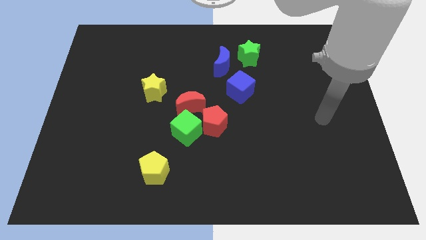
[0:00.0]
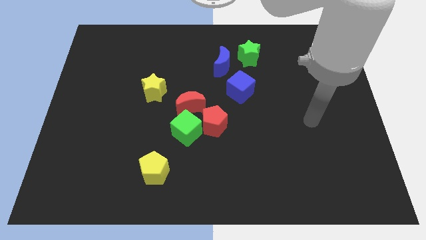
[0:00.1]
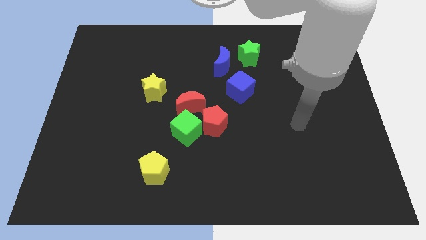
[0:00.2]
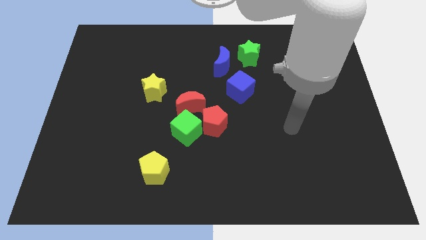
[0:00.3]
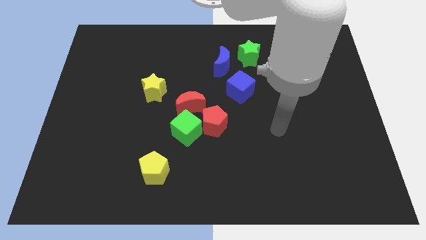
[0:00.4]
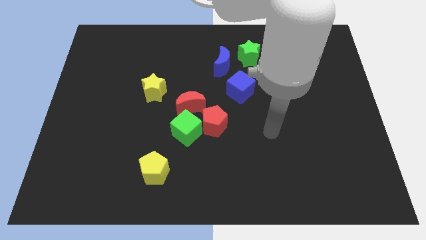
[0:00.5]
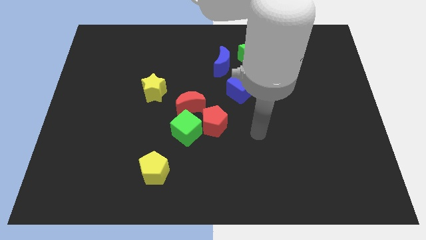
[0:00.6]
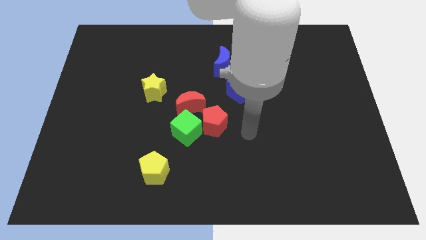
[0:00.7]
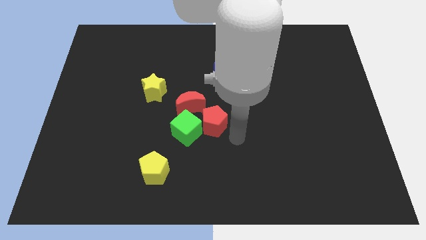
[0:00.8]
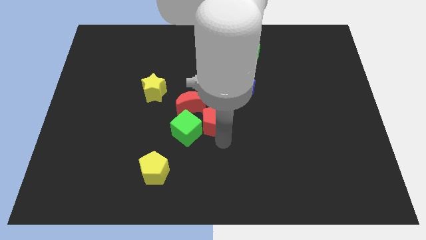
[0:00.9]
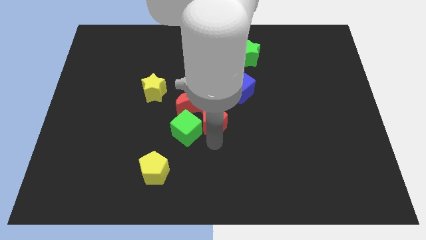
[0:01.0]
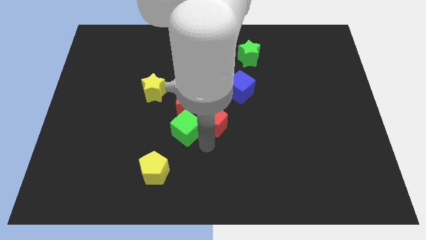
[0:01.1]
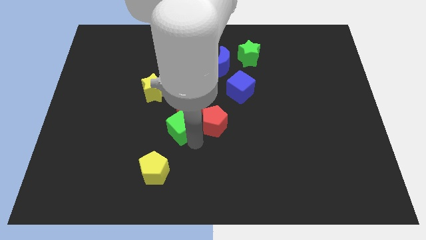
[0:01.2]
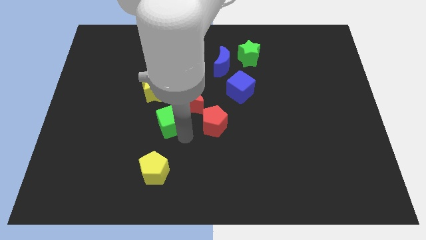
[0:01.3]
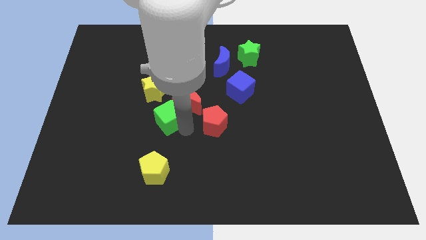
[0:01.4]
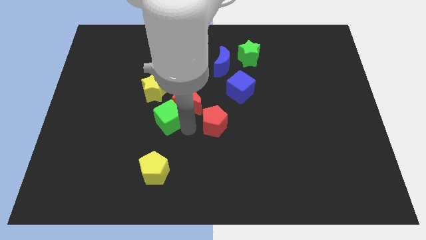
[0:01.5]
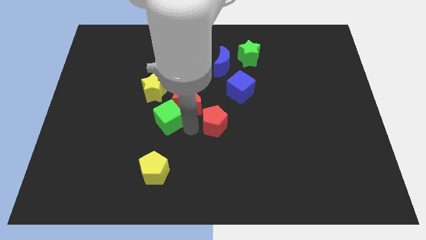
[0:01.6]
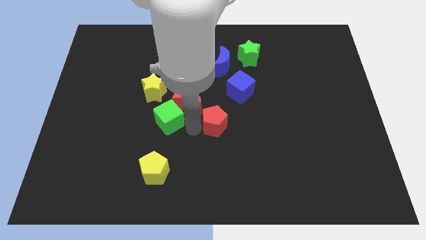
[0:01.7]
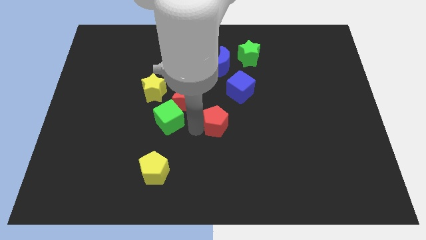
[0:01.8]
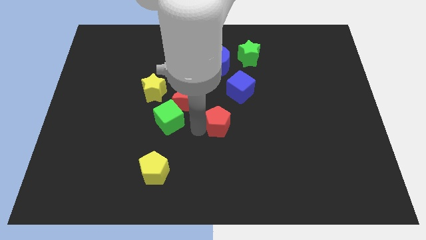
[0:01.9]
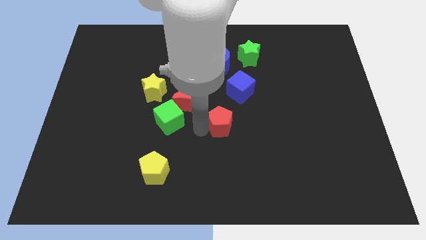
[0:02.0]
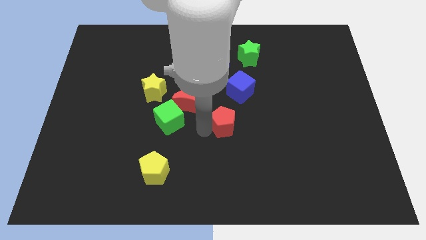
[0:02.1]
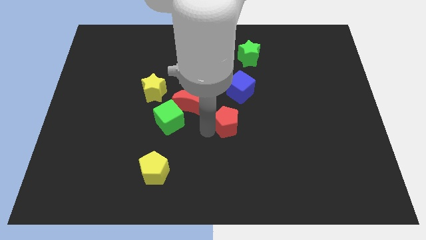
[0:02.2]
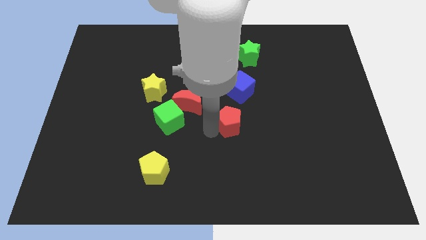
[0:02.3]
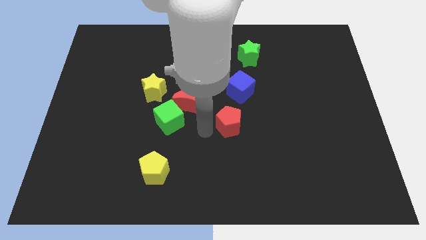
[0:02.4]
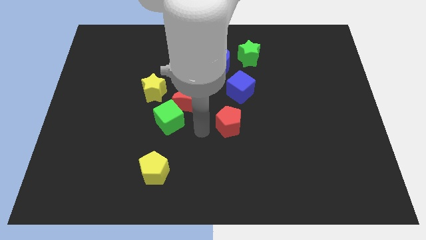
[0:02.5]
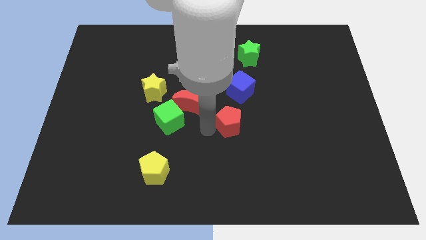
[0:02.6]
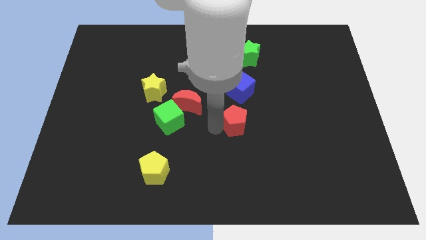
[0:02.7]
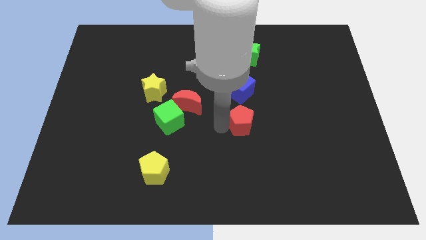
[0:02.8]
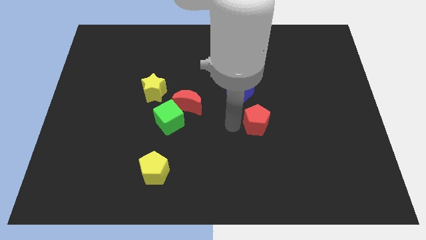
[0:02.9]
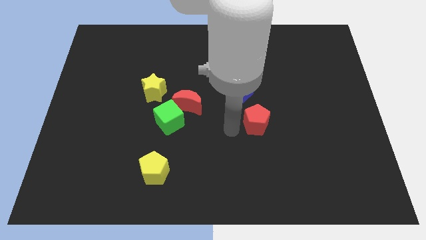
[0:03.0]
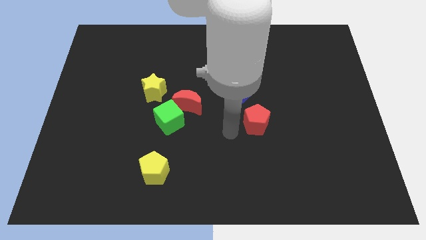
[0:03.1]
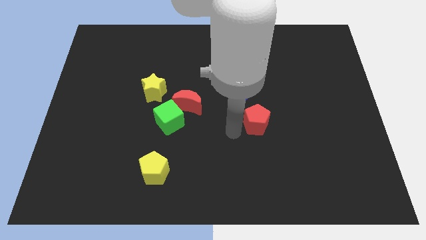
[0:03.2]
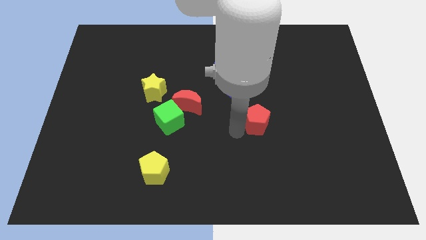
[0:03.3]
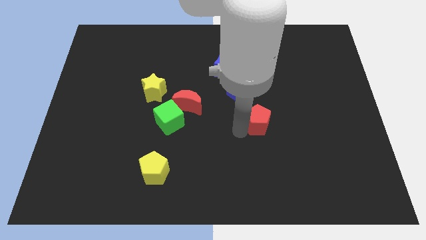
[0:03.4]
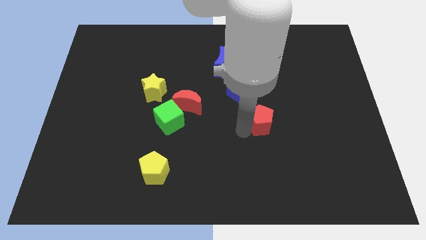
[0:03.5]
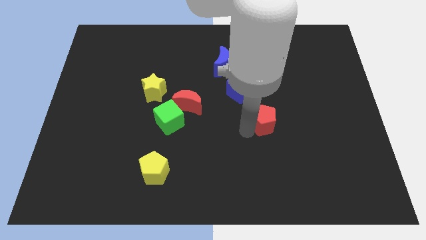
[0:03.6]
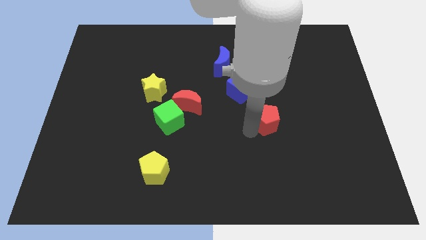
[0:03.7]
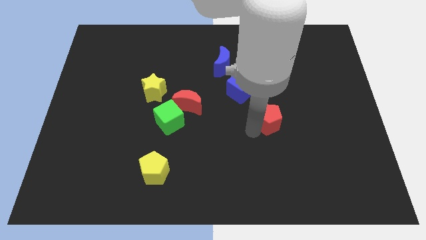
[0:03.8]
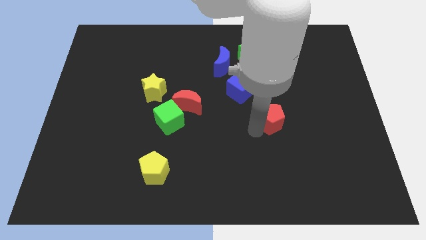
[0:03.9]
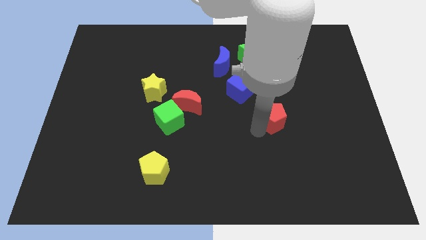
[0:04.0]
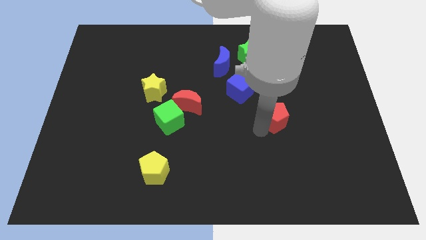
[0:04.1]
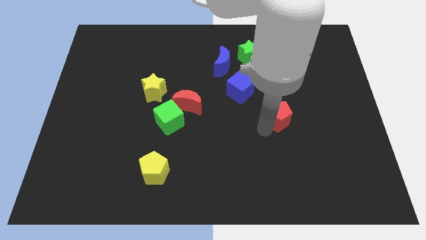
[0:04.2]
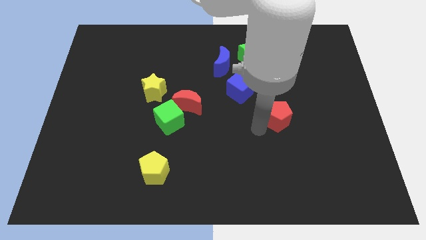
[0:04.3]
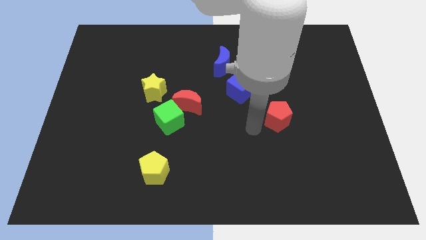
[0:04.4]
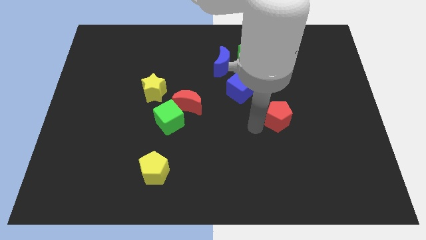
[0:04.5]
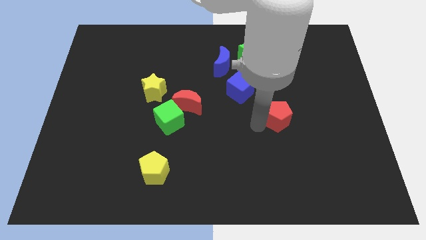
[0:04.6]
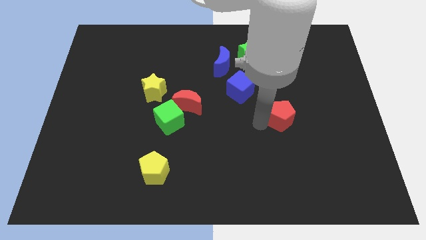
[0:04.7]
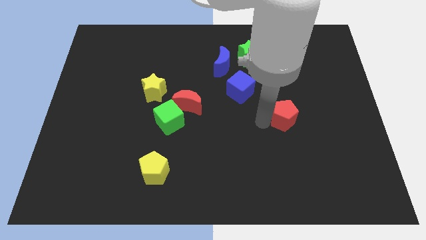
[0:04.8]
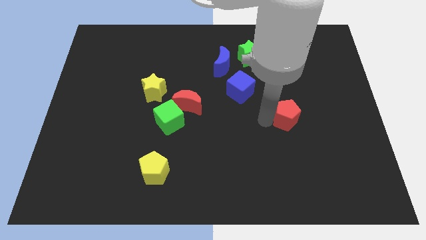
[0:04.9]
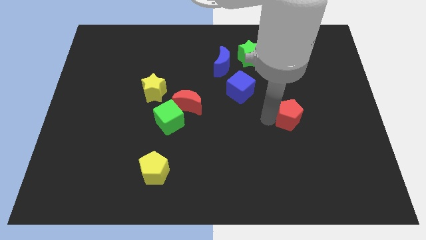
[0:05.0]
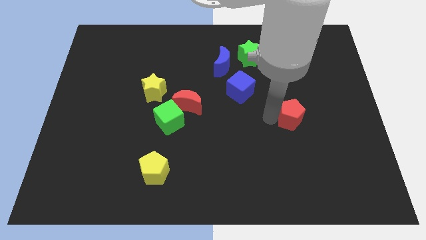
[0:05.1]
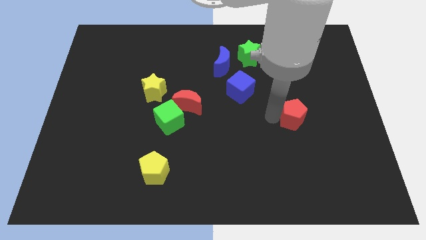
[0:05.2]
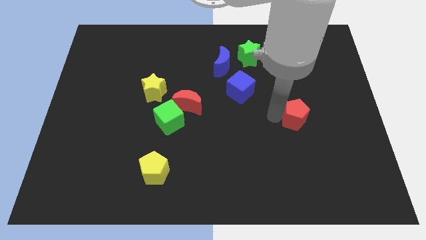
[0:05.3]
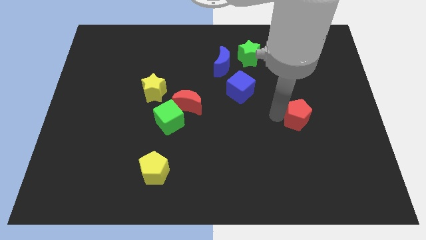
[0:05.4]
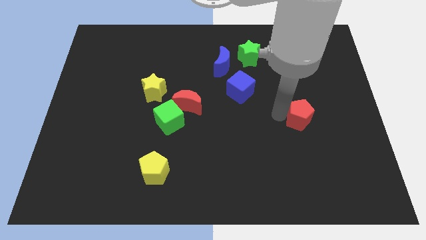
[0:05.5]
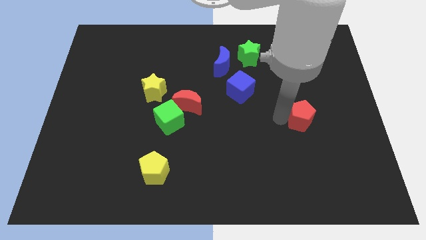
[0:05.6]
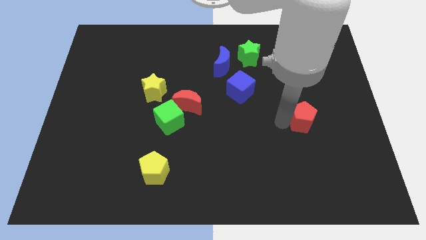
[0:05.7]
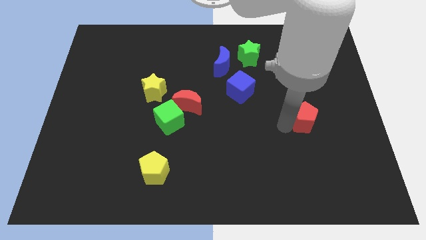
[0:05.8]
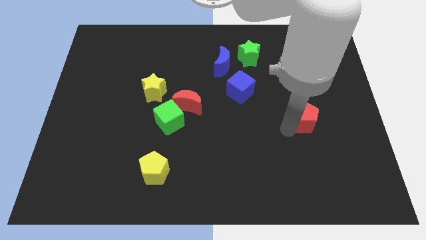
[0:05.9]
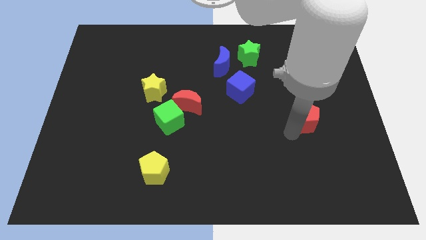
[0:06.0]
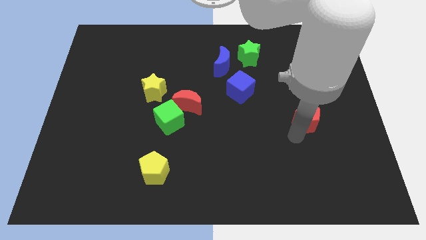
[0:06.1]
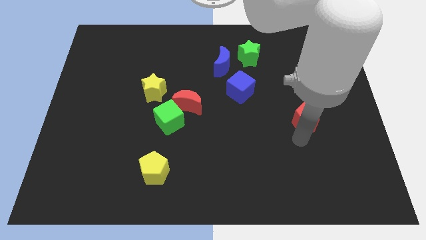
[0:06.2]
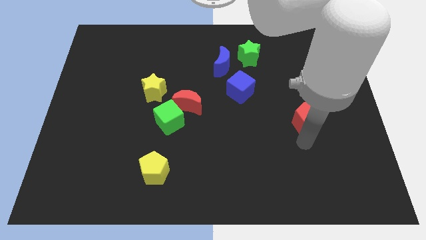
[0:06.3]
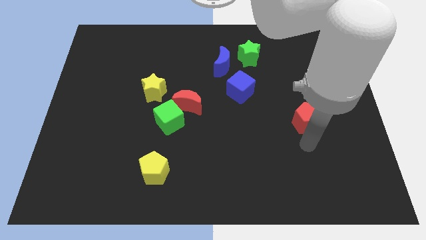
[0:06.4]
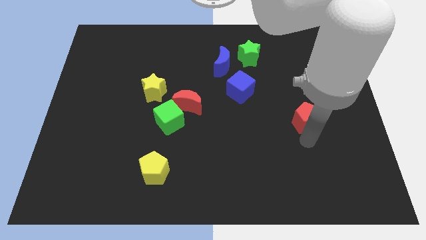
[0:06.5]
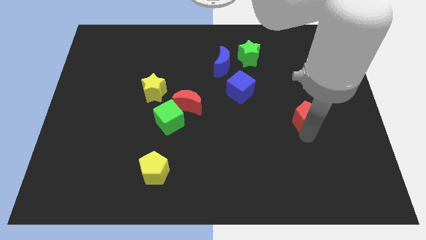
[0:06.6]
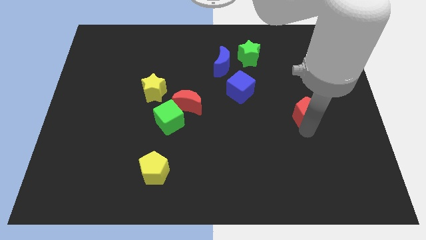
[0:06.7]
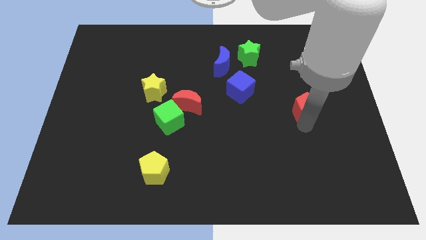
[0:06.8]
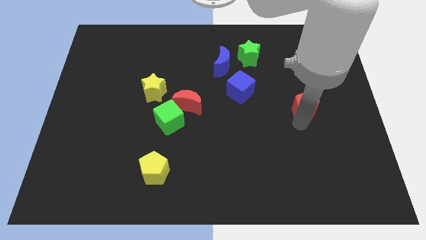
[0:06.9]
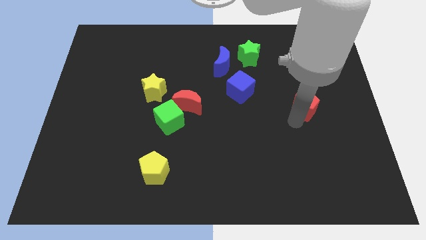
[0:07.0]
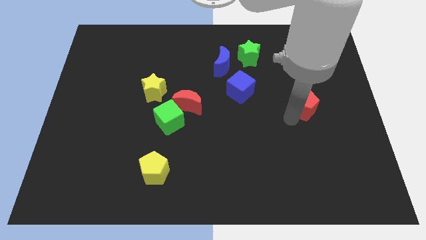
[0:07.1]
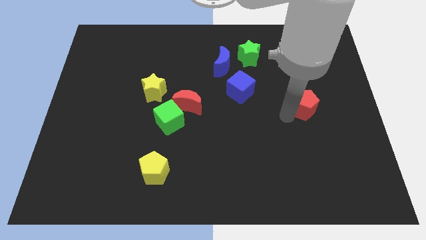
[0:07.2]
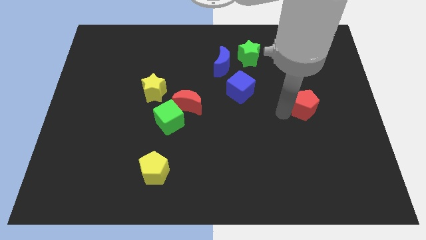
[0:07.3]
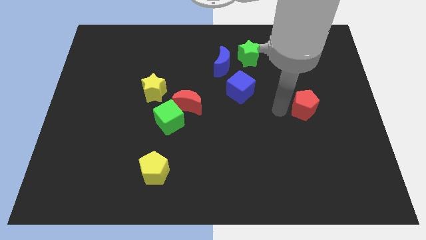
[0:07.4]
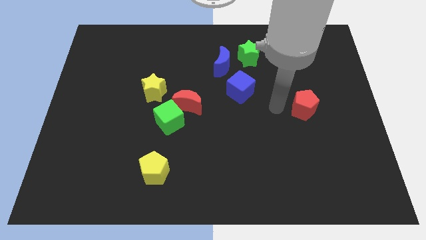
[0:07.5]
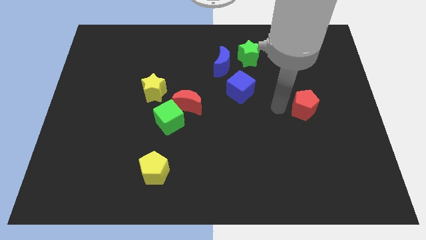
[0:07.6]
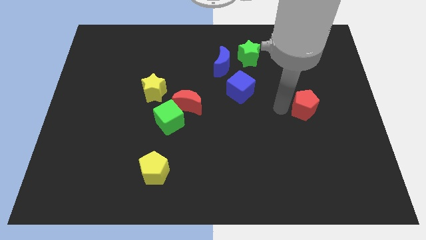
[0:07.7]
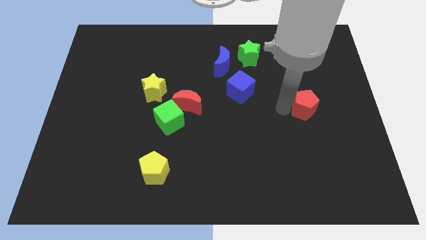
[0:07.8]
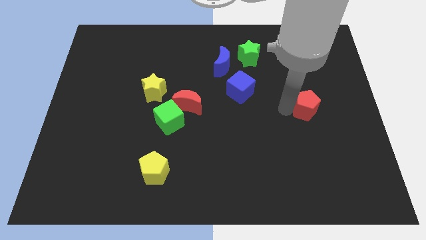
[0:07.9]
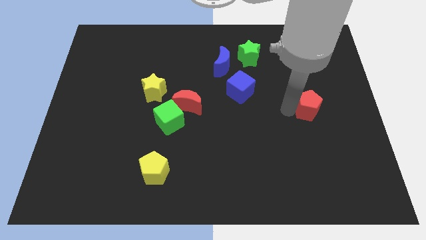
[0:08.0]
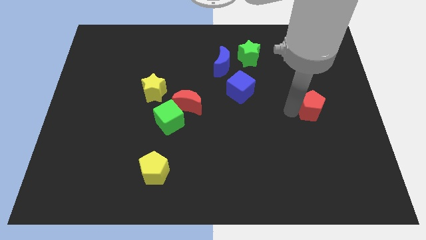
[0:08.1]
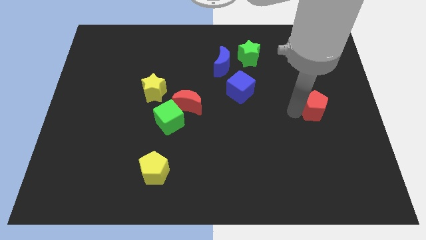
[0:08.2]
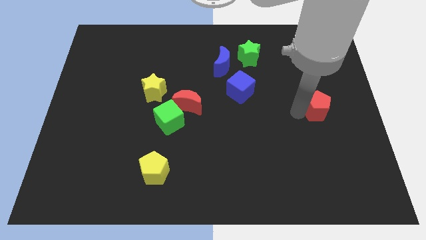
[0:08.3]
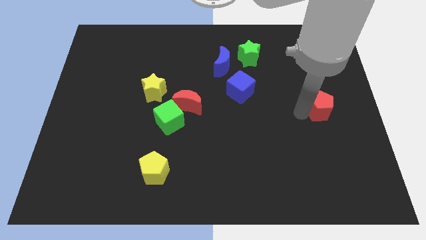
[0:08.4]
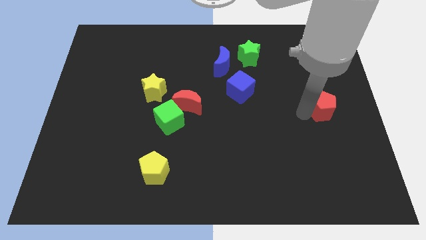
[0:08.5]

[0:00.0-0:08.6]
push the red pentagon to the right side of the board
